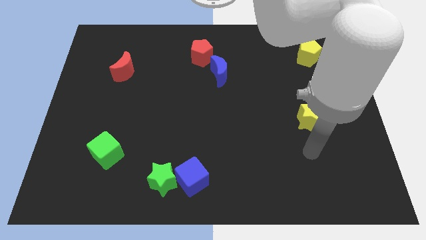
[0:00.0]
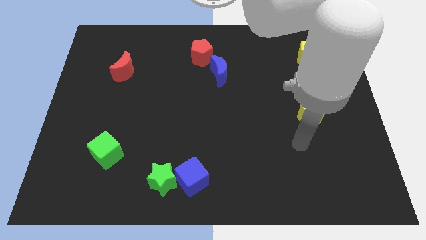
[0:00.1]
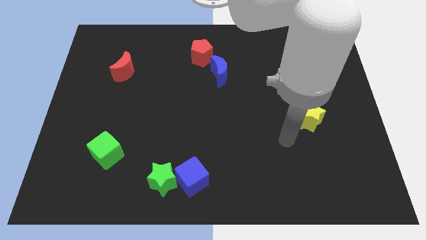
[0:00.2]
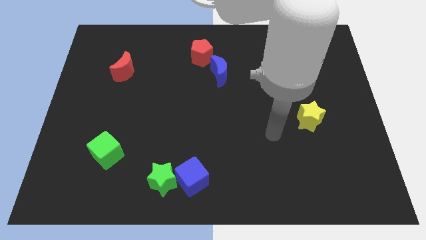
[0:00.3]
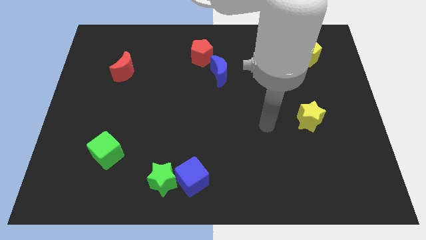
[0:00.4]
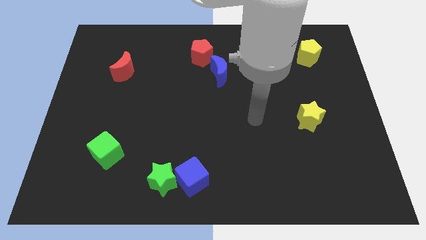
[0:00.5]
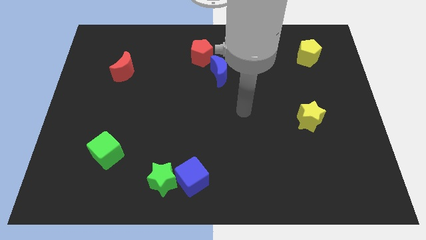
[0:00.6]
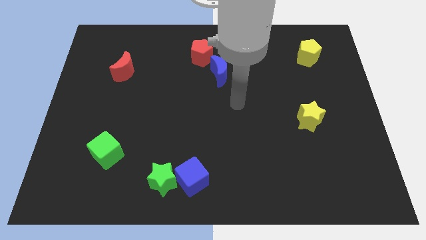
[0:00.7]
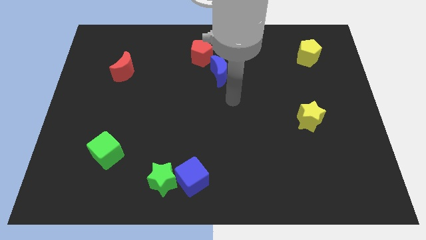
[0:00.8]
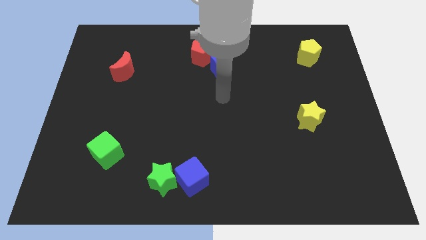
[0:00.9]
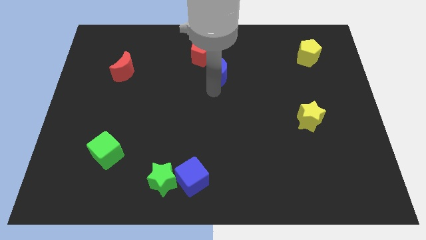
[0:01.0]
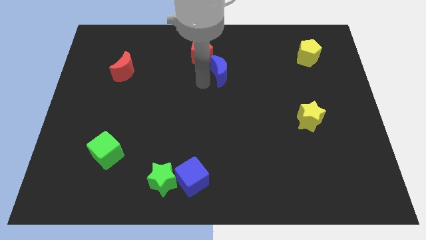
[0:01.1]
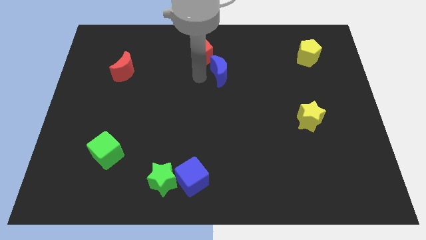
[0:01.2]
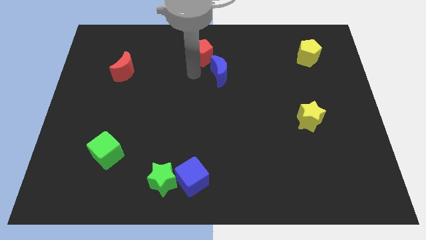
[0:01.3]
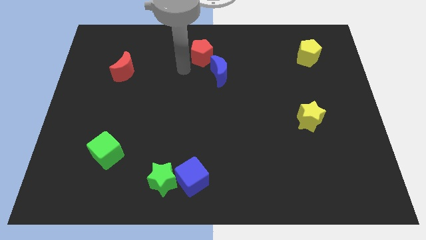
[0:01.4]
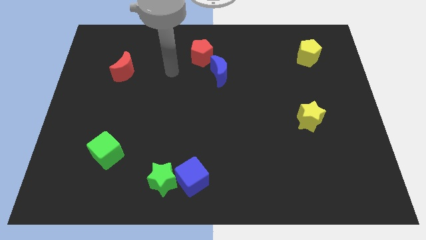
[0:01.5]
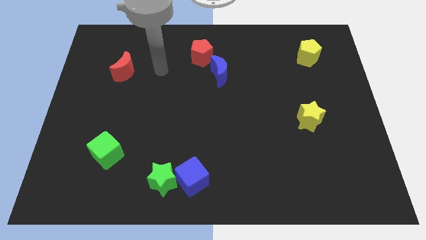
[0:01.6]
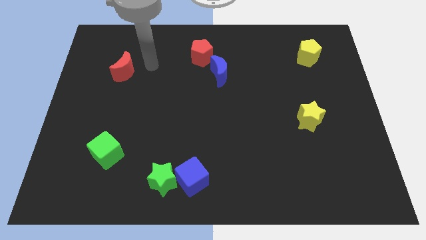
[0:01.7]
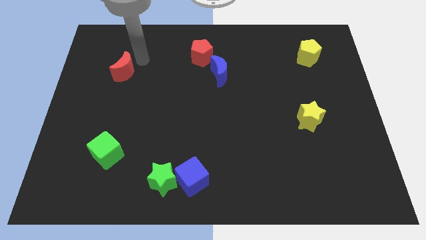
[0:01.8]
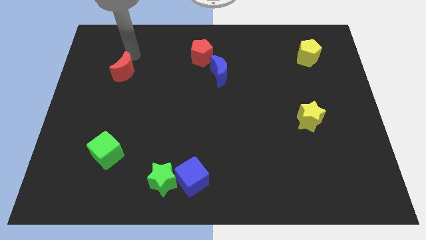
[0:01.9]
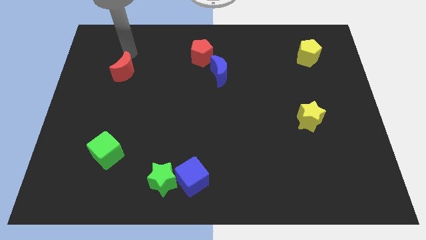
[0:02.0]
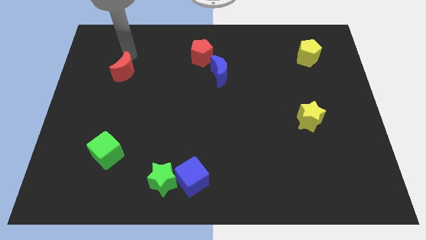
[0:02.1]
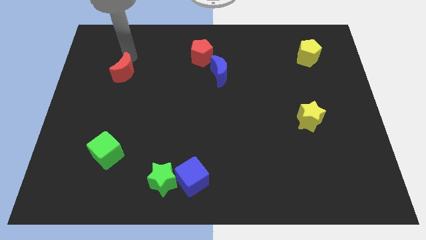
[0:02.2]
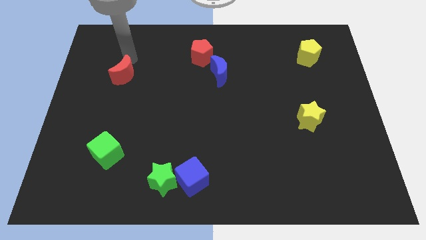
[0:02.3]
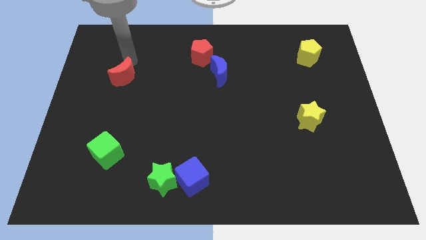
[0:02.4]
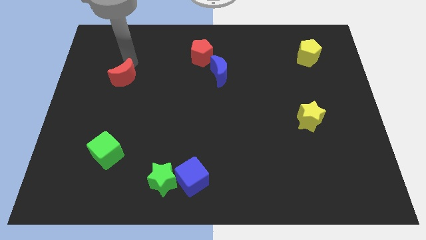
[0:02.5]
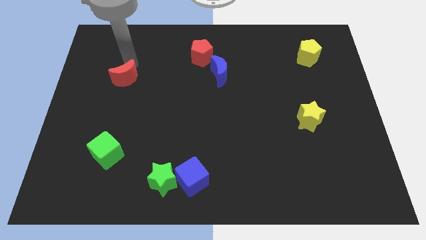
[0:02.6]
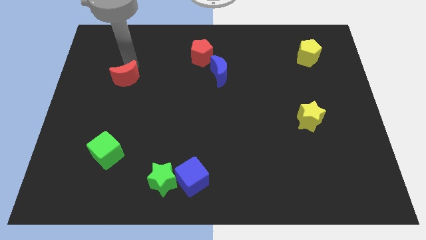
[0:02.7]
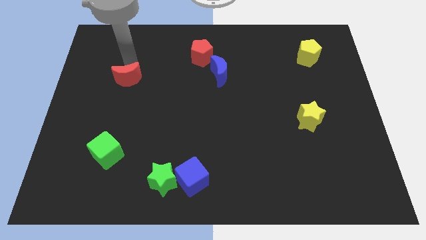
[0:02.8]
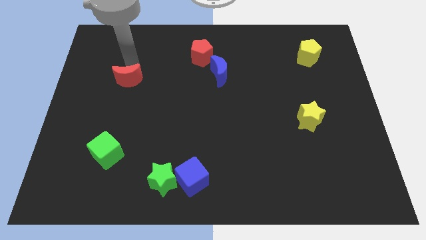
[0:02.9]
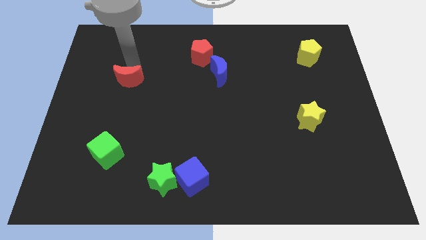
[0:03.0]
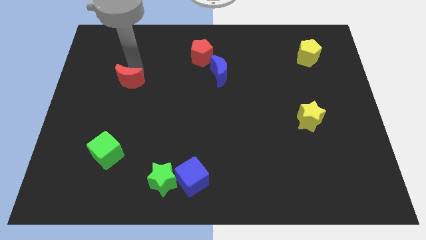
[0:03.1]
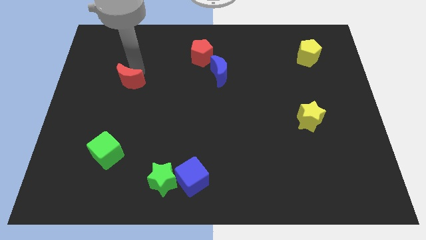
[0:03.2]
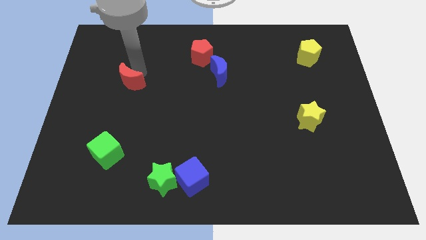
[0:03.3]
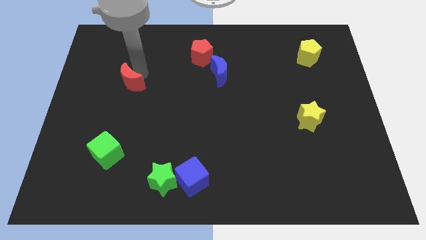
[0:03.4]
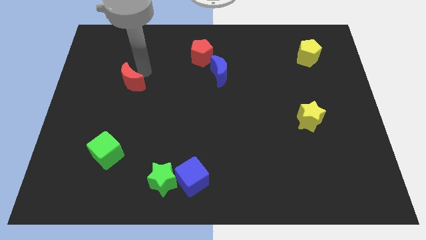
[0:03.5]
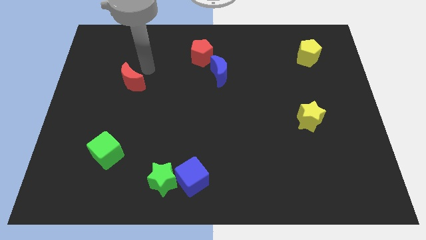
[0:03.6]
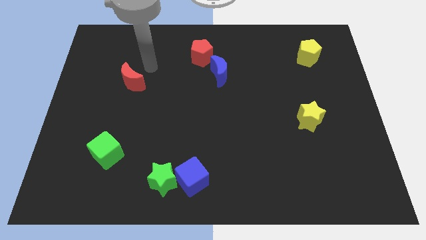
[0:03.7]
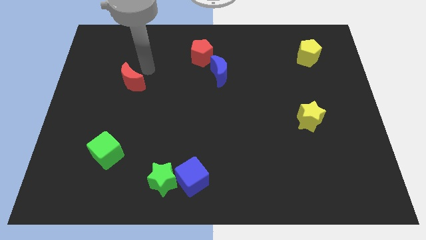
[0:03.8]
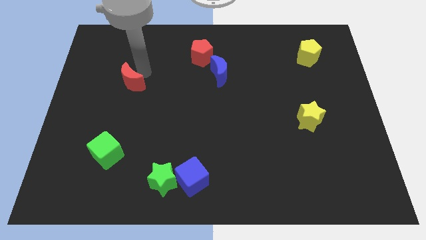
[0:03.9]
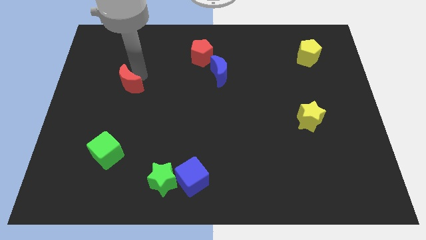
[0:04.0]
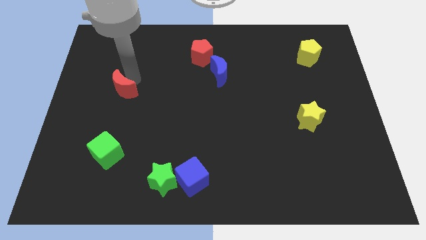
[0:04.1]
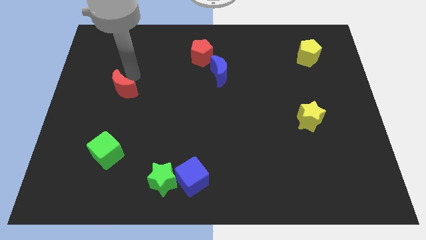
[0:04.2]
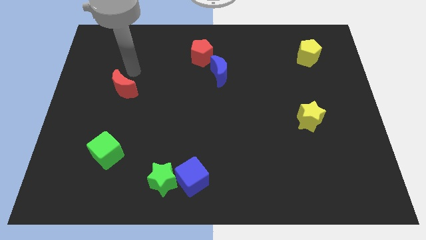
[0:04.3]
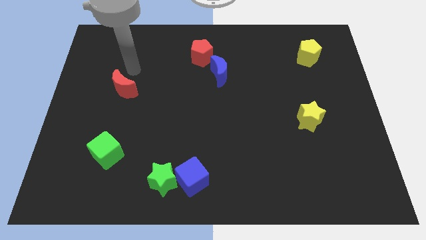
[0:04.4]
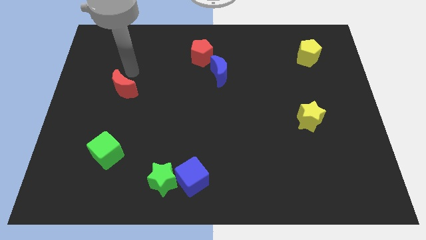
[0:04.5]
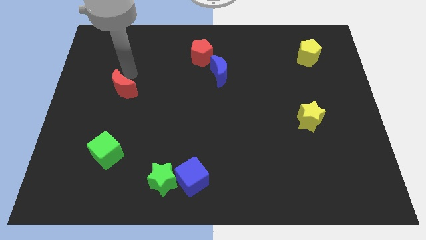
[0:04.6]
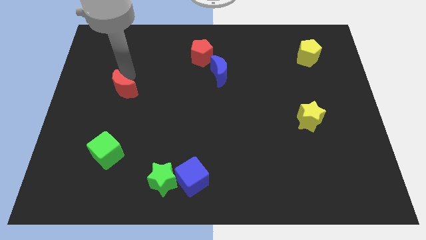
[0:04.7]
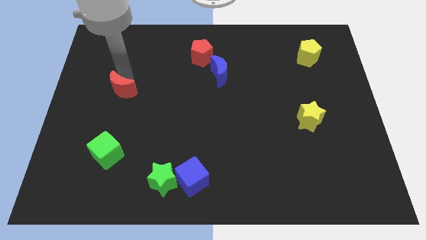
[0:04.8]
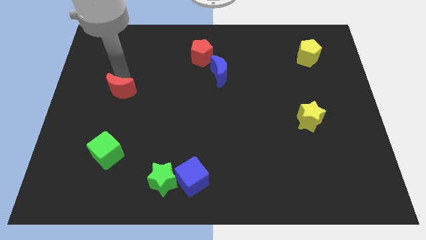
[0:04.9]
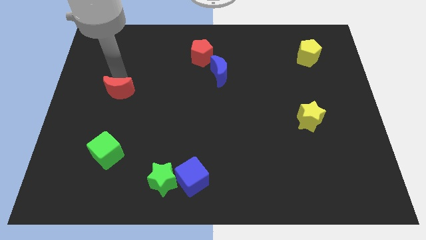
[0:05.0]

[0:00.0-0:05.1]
slide the red moon downwards a little

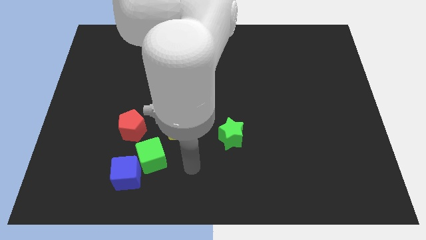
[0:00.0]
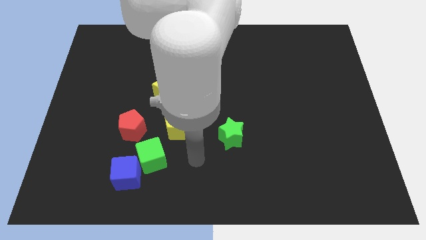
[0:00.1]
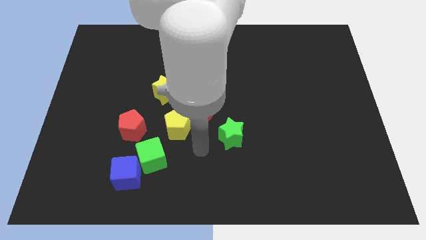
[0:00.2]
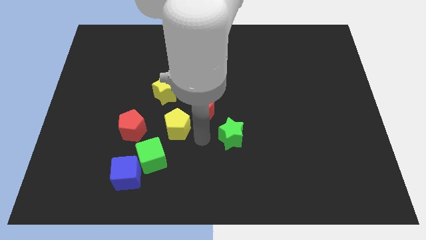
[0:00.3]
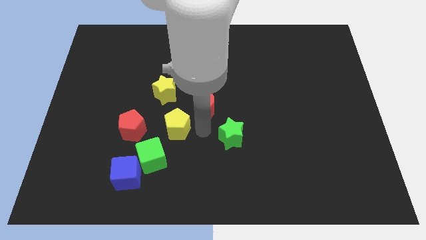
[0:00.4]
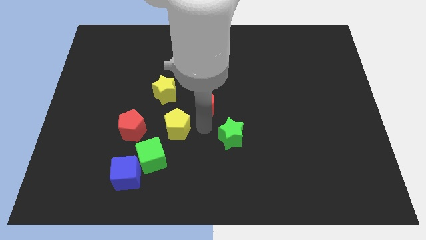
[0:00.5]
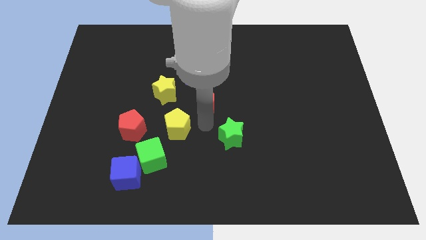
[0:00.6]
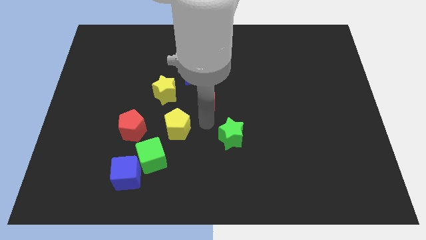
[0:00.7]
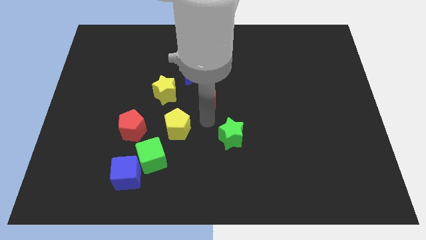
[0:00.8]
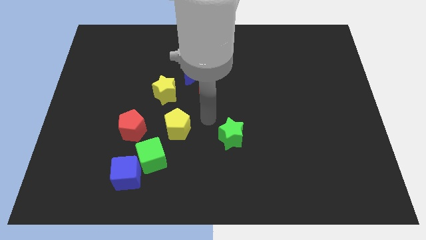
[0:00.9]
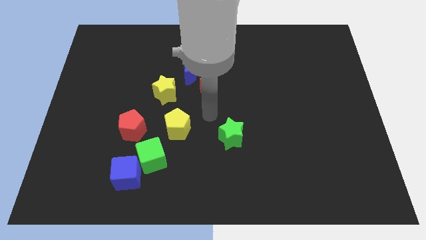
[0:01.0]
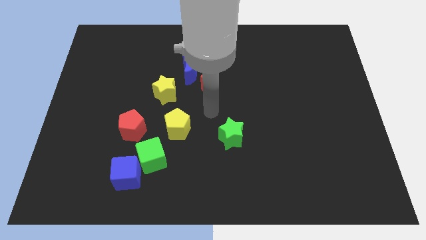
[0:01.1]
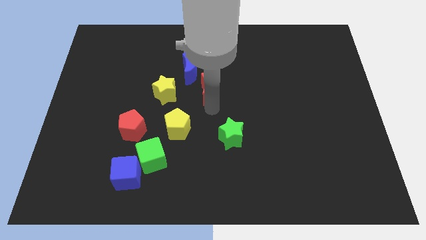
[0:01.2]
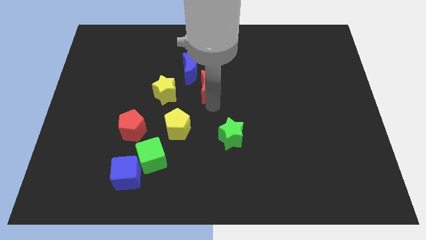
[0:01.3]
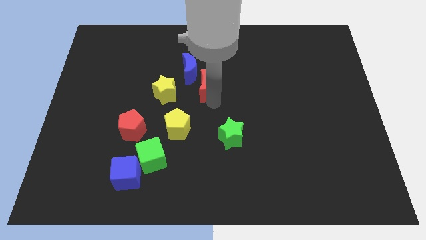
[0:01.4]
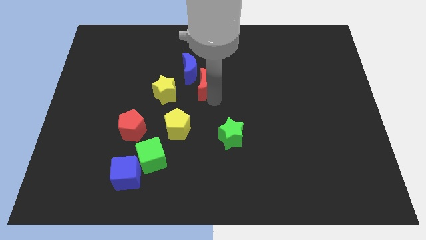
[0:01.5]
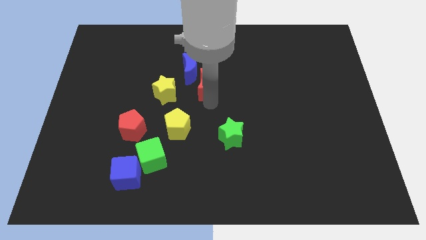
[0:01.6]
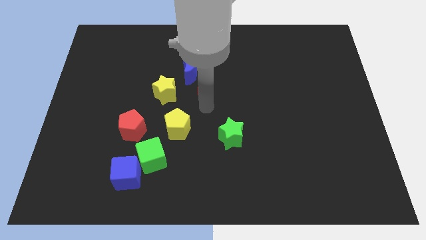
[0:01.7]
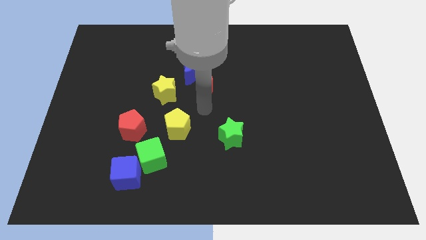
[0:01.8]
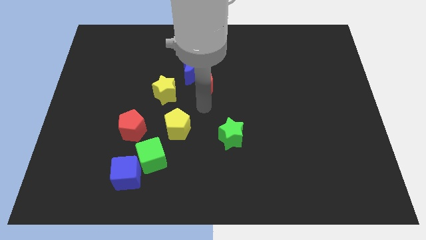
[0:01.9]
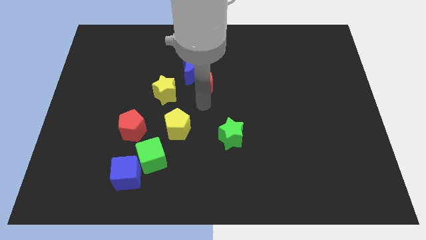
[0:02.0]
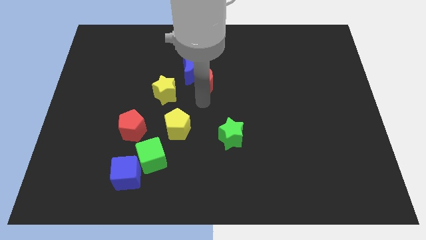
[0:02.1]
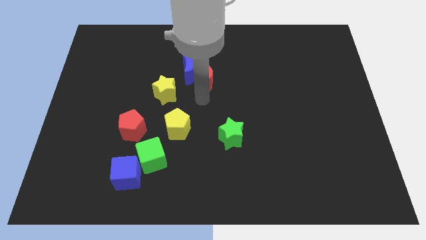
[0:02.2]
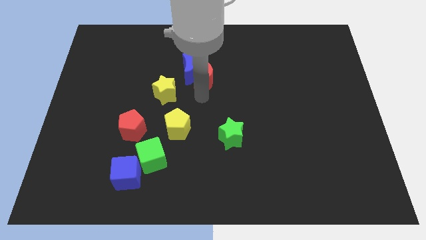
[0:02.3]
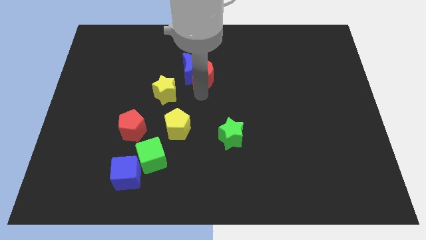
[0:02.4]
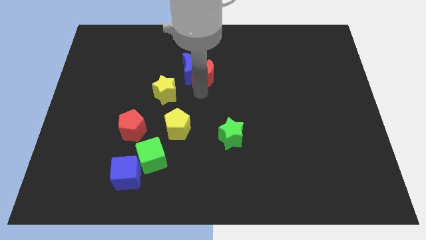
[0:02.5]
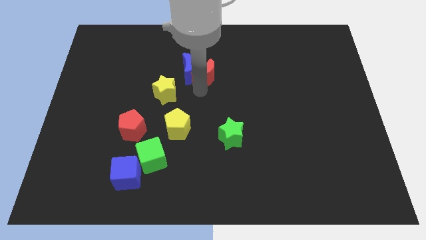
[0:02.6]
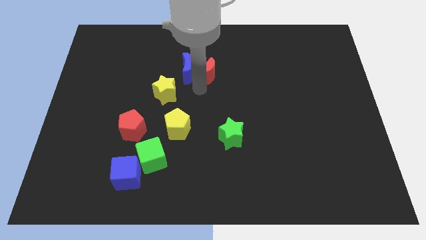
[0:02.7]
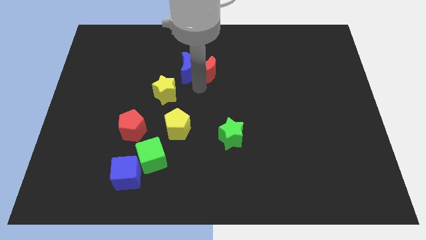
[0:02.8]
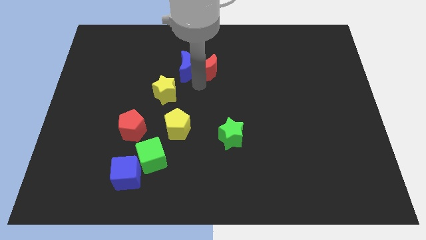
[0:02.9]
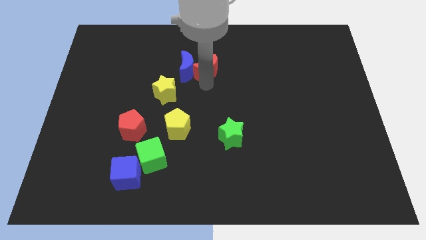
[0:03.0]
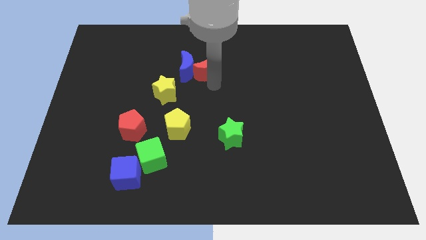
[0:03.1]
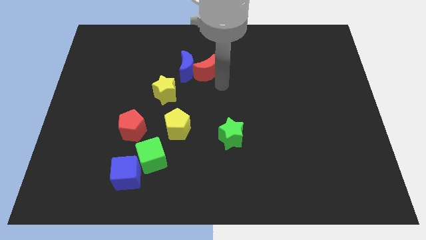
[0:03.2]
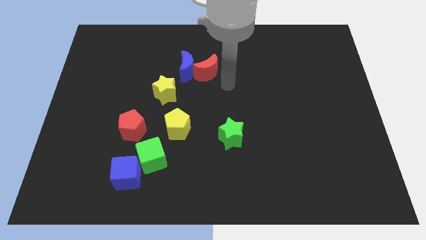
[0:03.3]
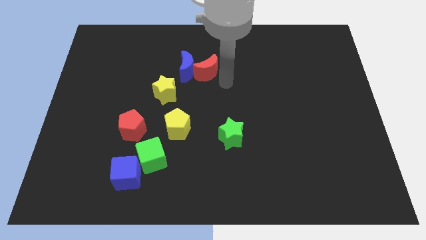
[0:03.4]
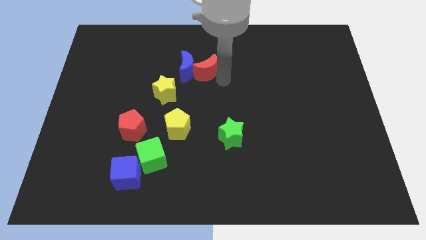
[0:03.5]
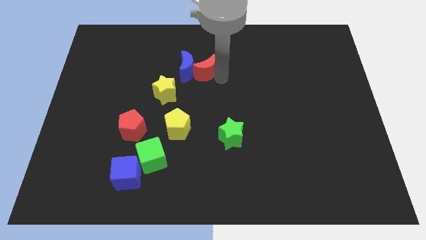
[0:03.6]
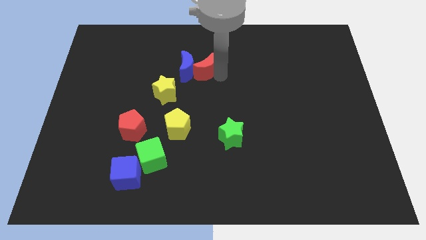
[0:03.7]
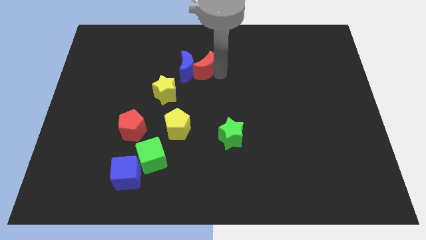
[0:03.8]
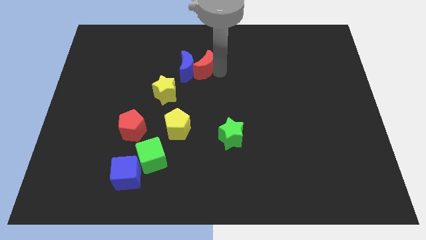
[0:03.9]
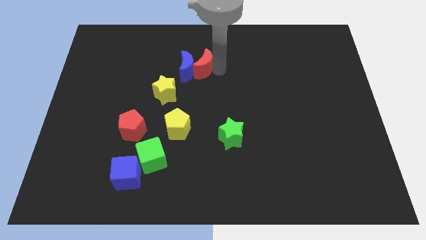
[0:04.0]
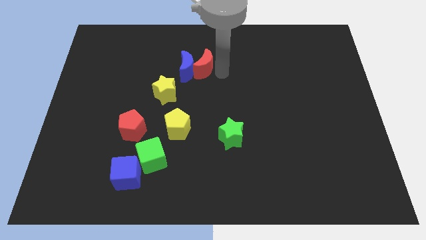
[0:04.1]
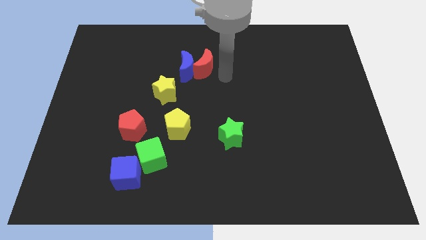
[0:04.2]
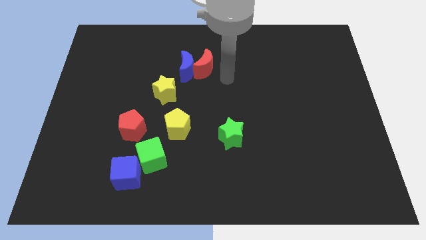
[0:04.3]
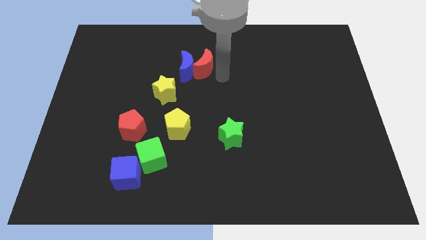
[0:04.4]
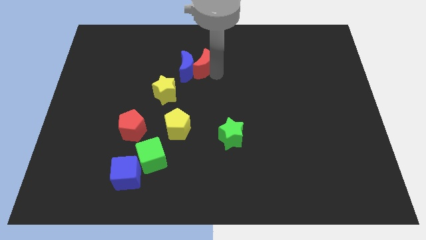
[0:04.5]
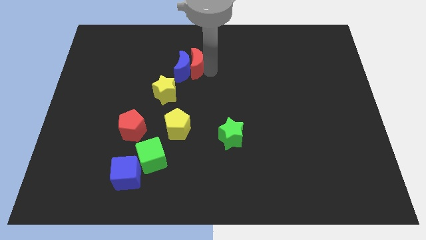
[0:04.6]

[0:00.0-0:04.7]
push the red moon a little upwards and then to the left
